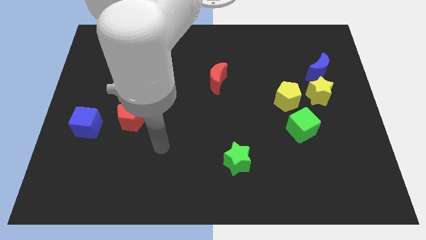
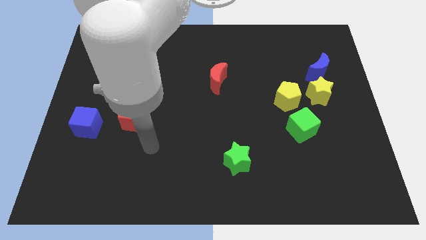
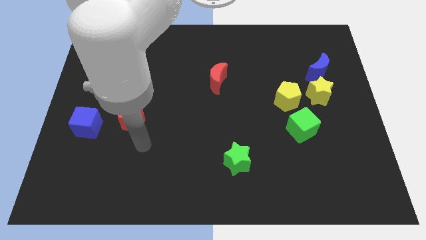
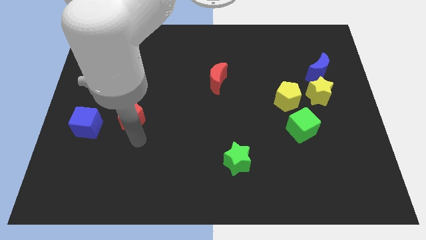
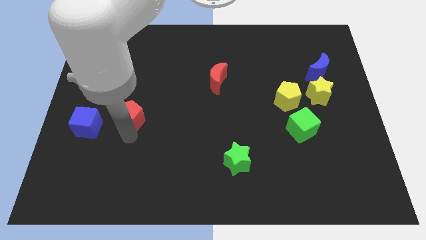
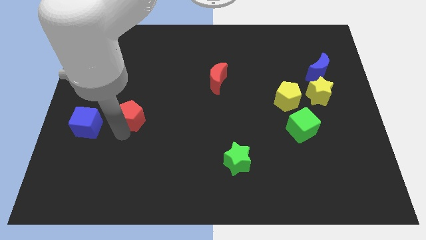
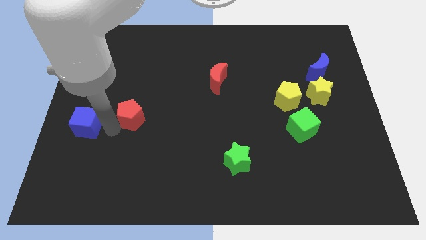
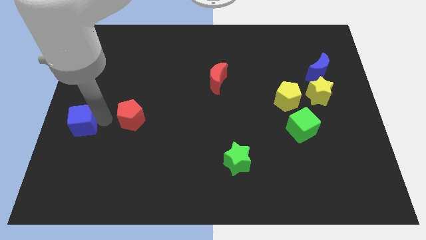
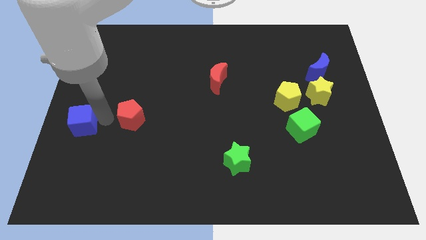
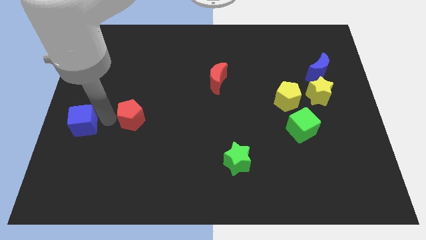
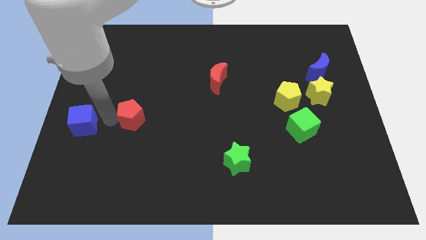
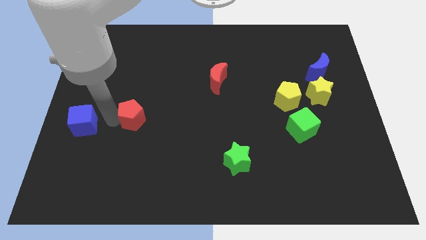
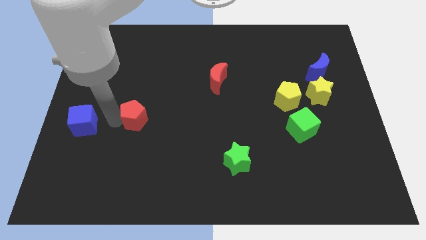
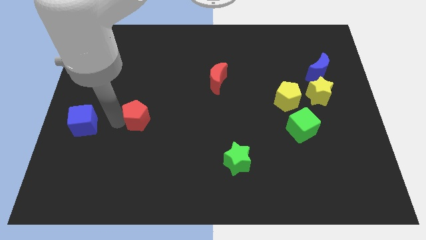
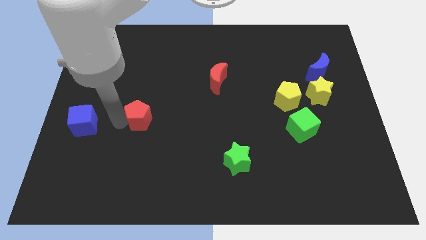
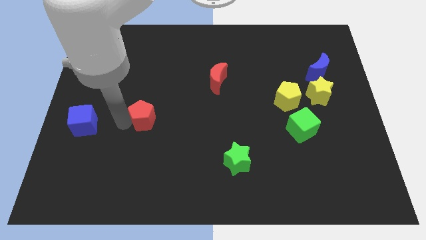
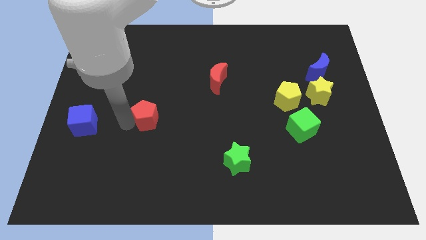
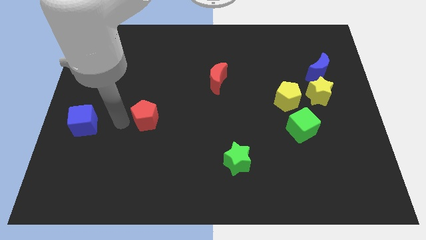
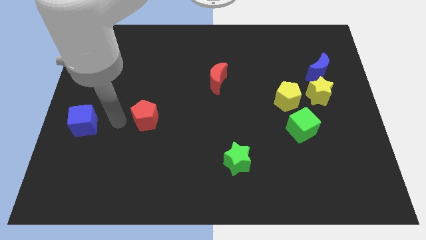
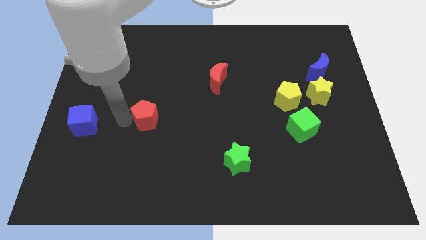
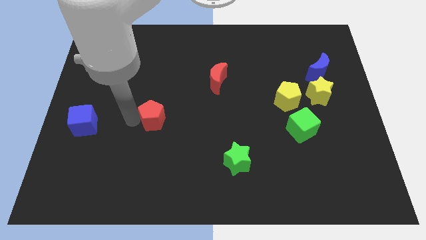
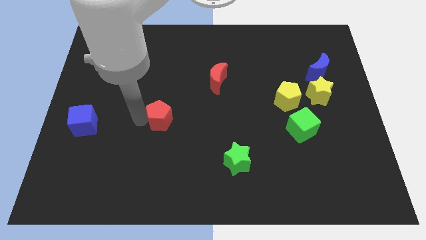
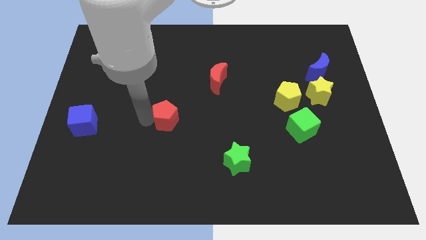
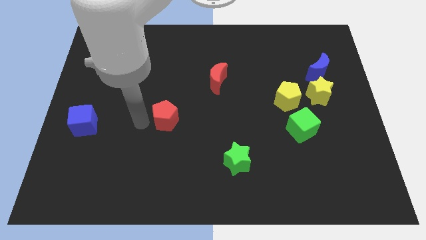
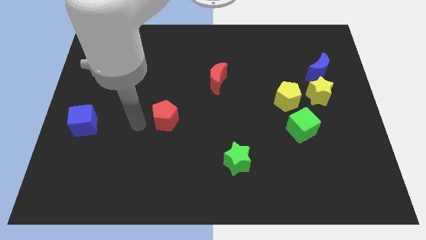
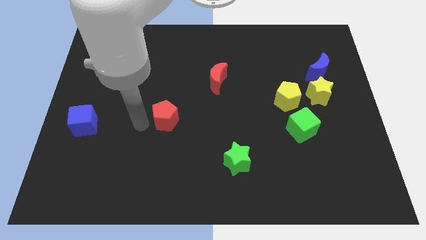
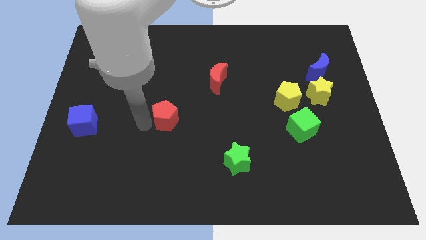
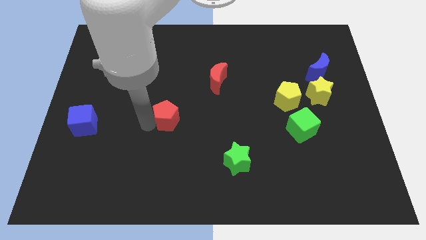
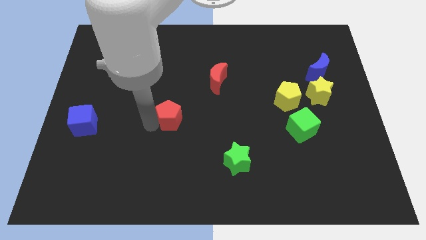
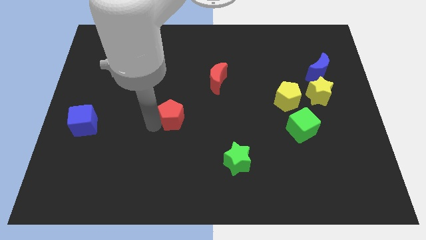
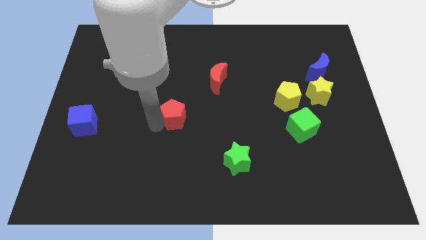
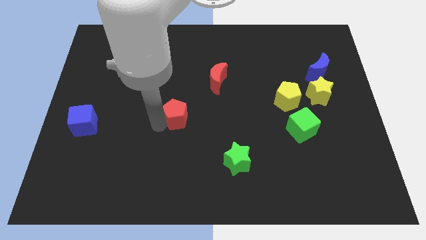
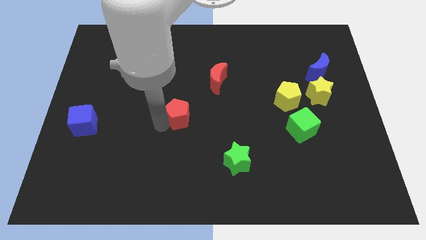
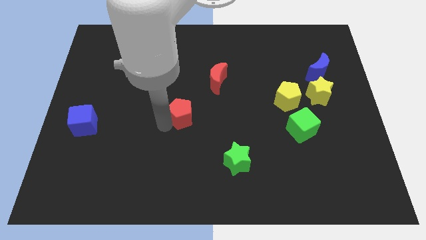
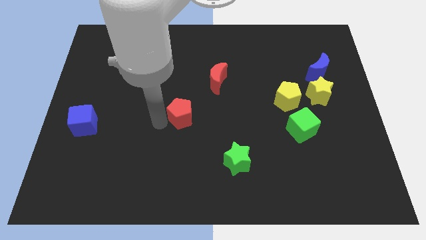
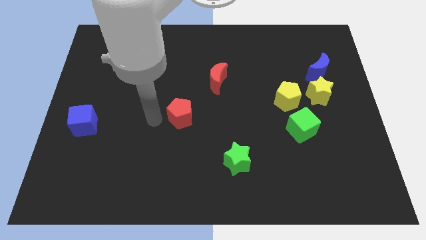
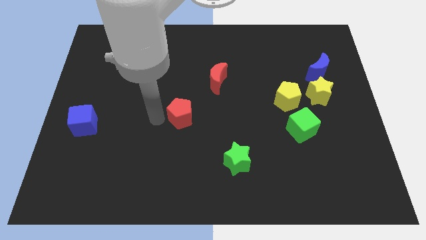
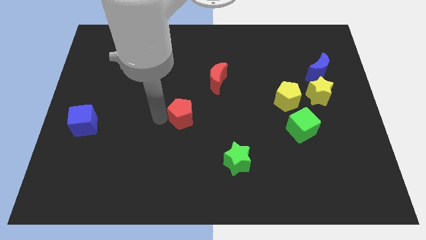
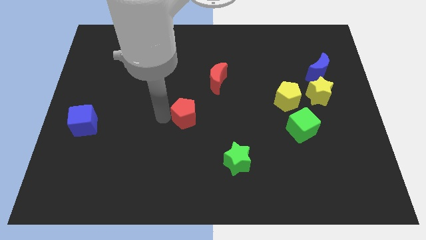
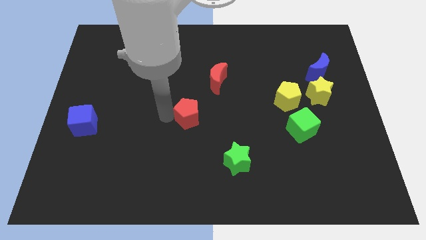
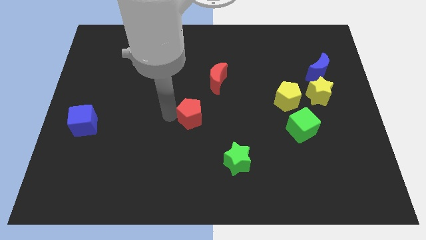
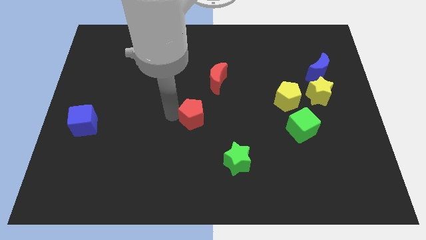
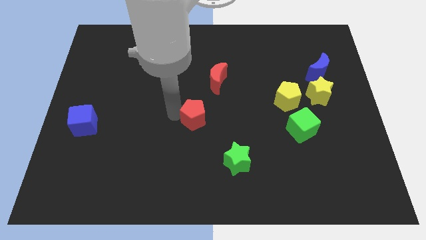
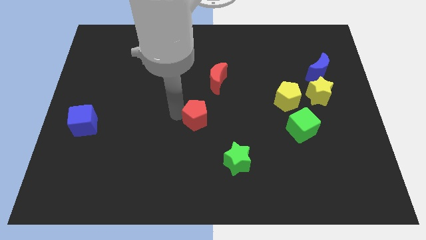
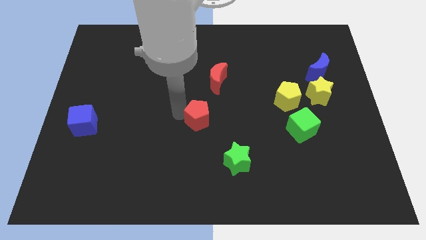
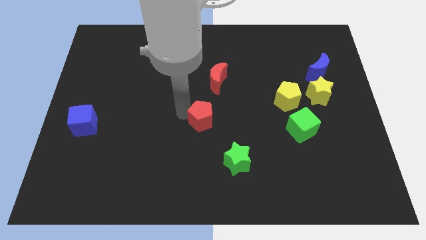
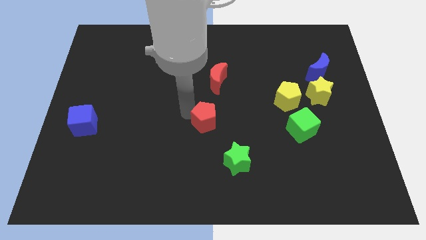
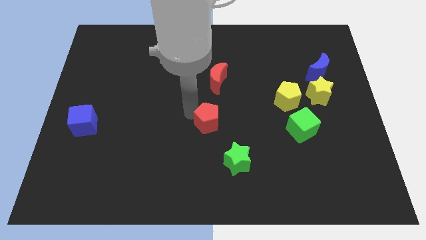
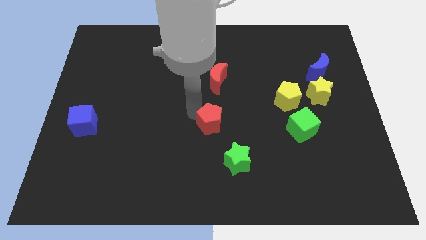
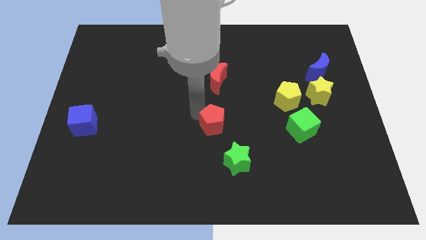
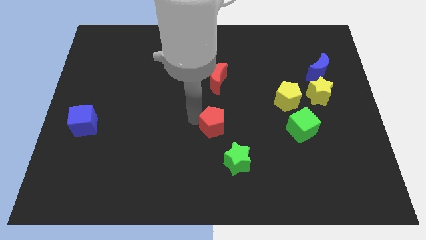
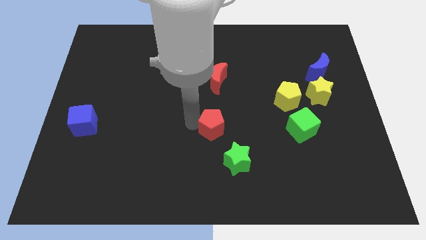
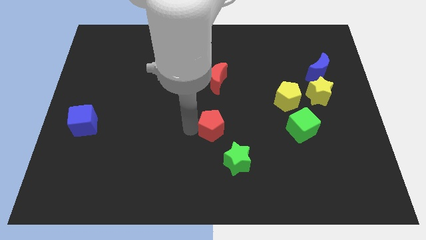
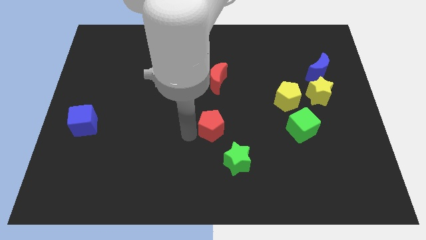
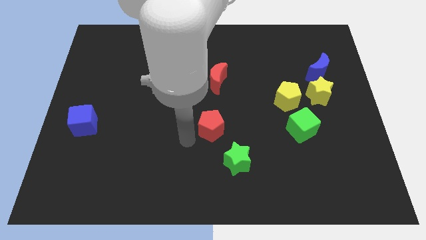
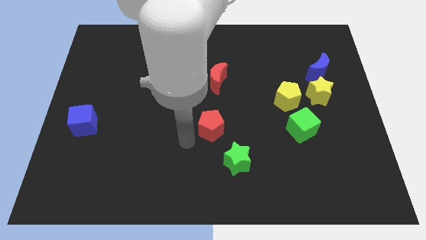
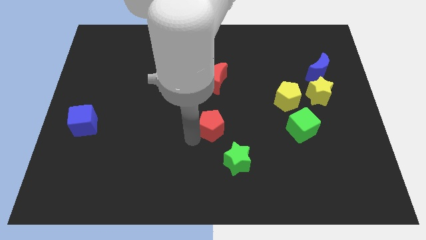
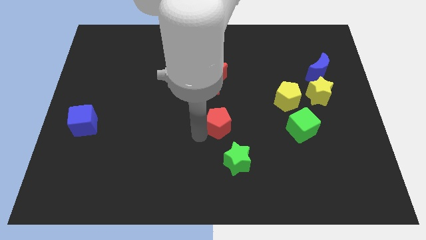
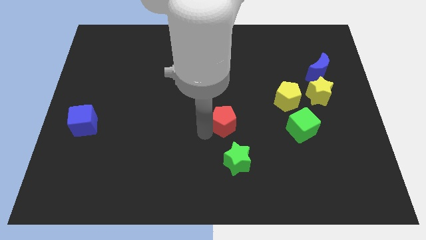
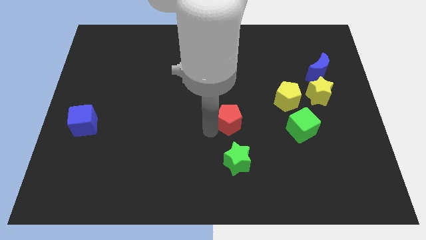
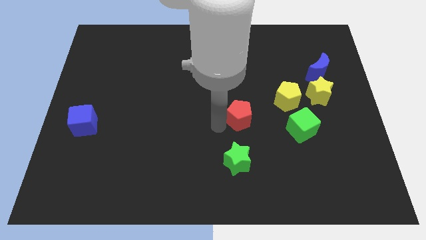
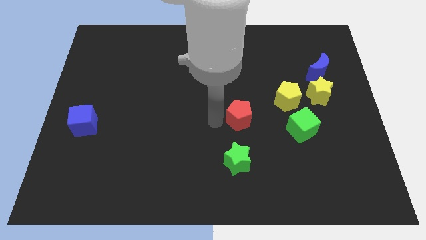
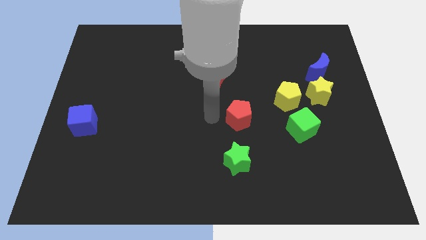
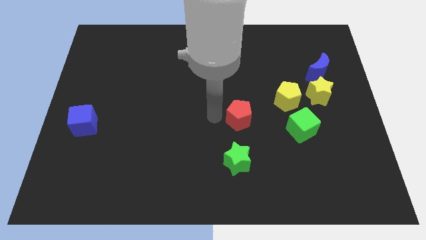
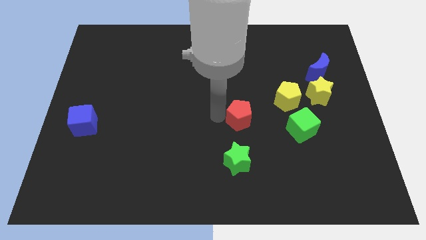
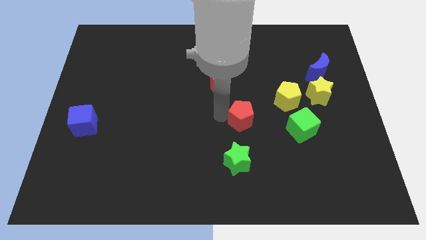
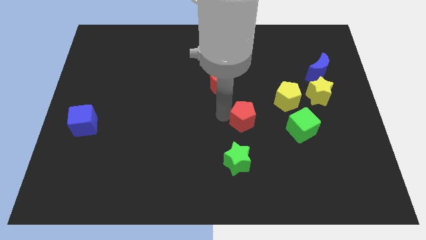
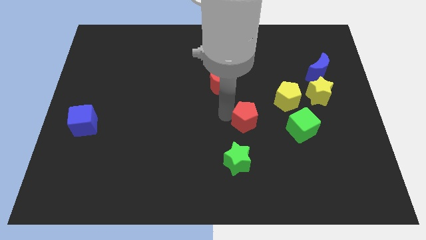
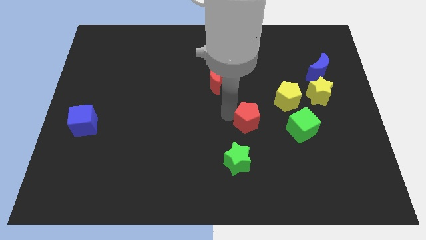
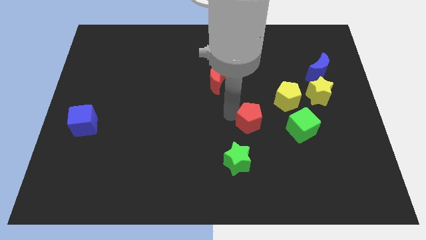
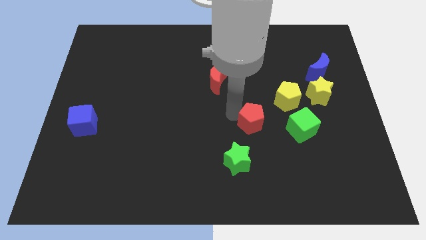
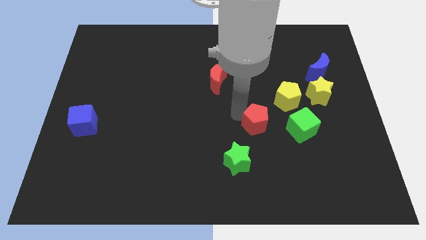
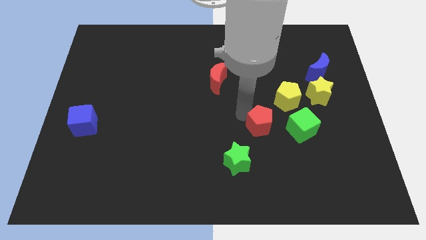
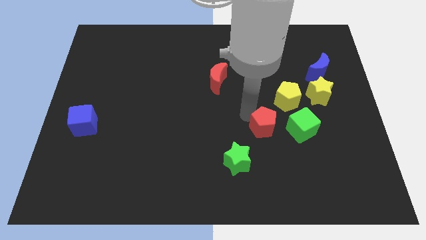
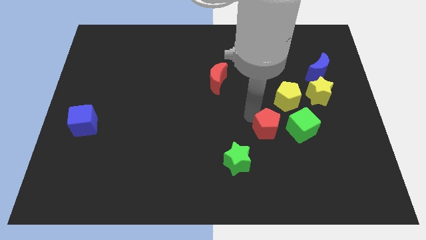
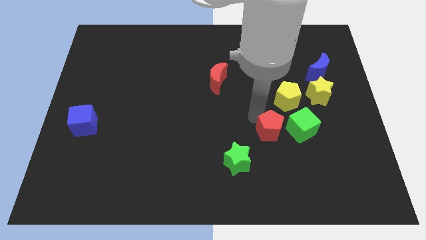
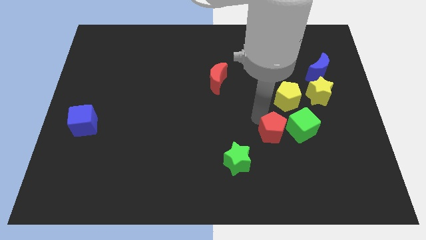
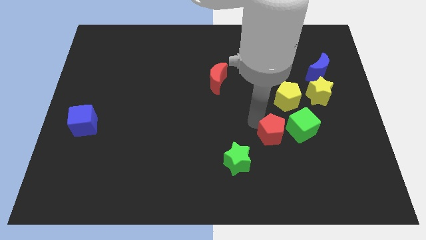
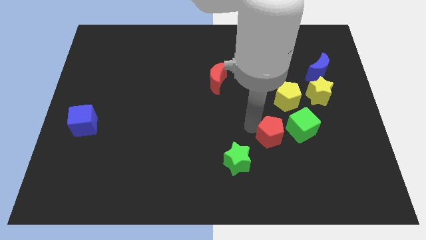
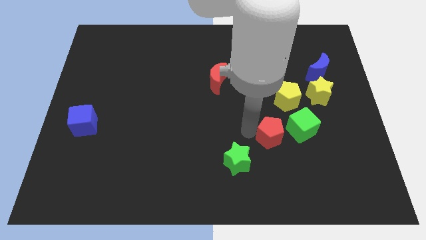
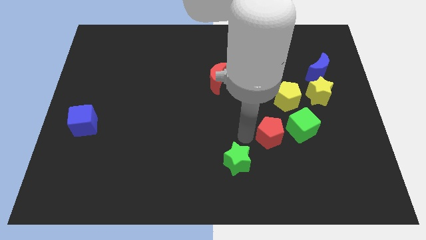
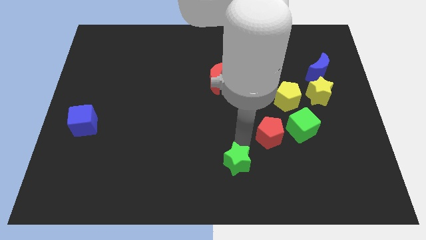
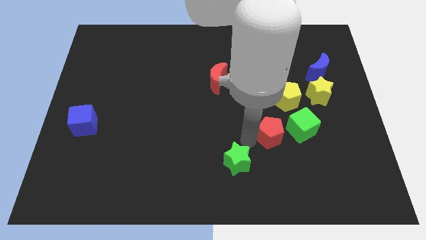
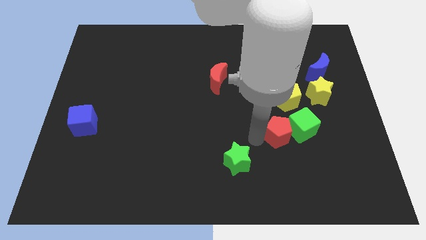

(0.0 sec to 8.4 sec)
put the red pentagon to the green cube
